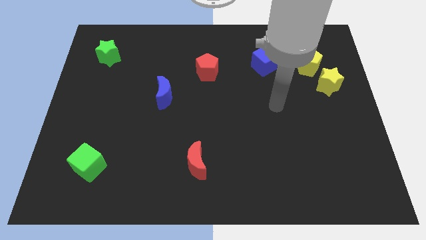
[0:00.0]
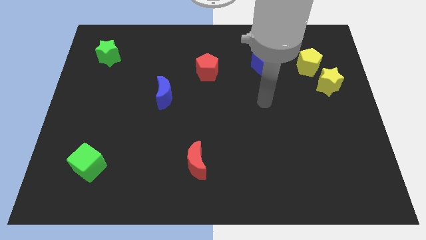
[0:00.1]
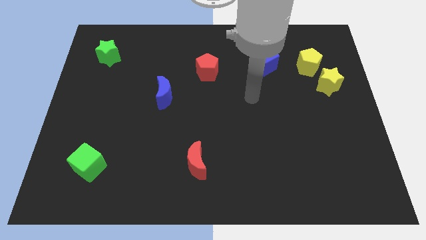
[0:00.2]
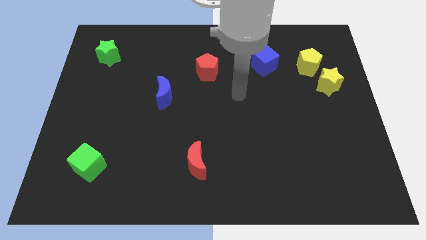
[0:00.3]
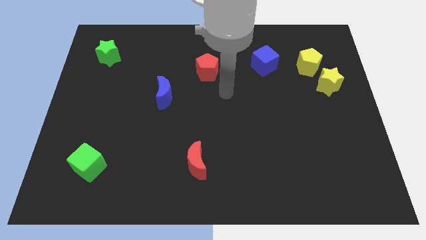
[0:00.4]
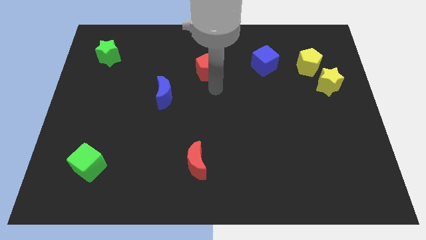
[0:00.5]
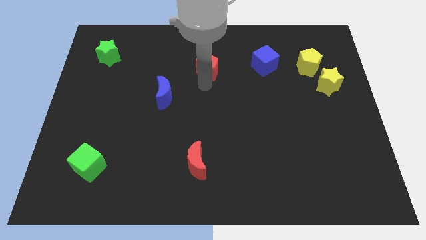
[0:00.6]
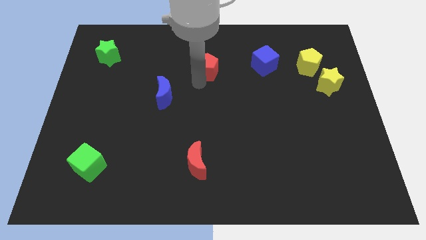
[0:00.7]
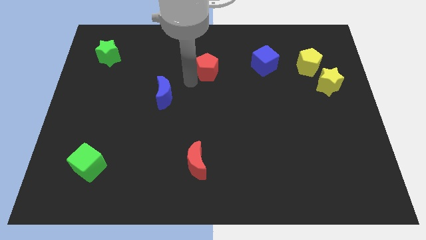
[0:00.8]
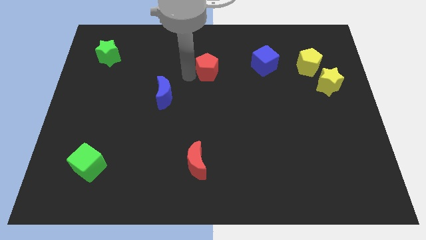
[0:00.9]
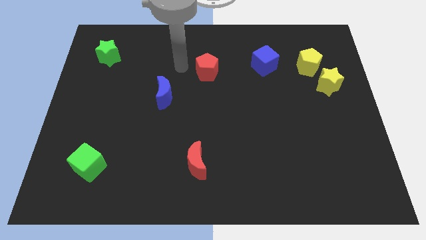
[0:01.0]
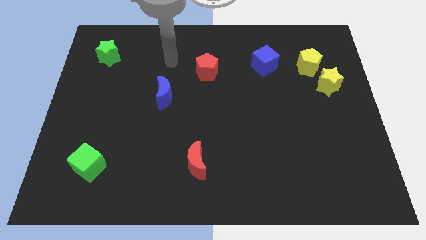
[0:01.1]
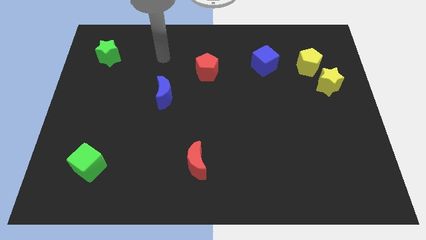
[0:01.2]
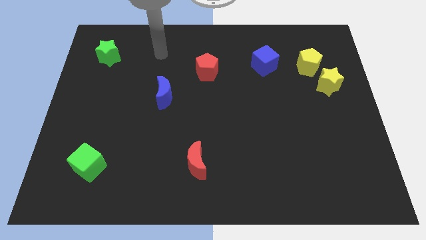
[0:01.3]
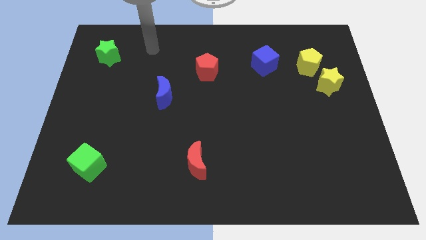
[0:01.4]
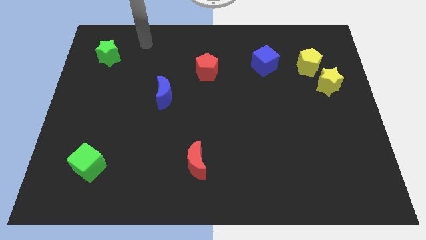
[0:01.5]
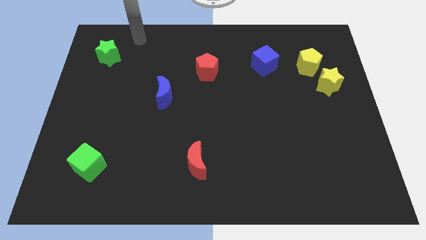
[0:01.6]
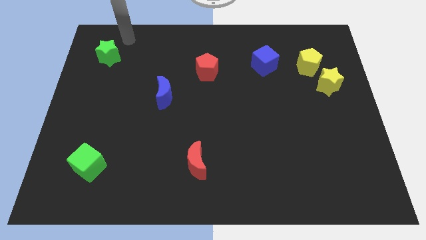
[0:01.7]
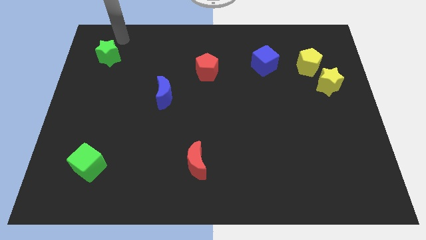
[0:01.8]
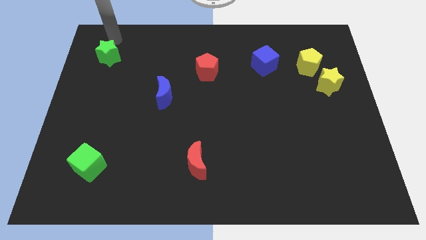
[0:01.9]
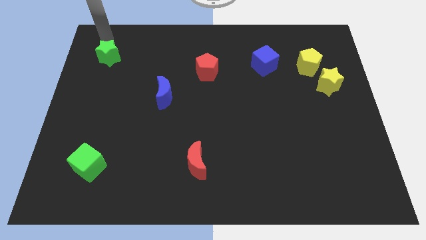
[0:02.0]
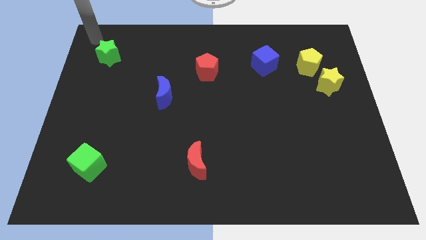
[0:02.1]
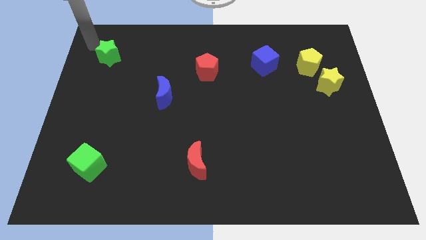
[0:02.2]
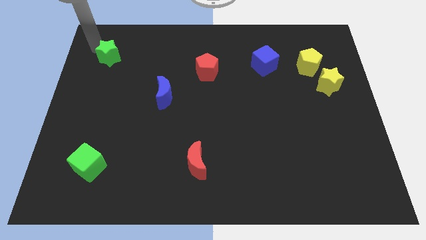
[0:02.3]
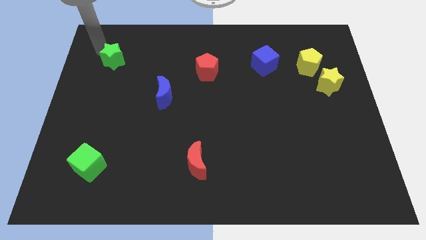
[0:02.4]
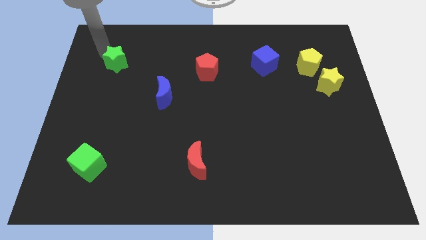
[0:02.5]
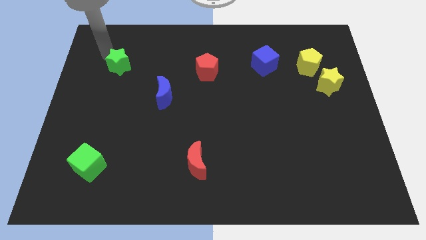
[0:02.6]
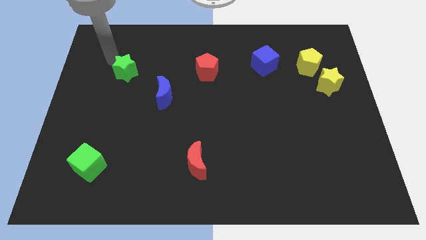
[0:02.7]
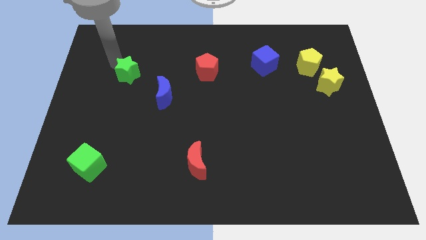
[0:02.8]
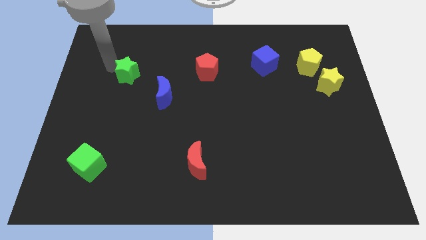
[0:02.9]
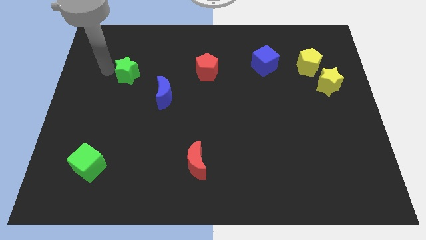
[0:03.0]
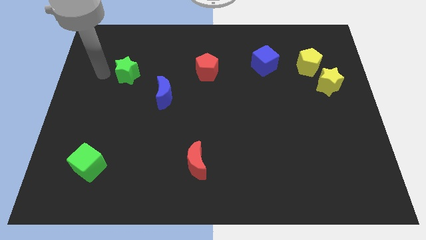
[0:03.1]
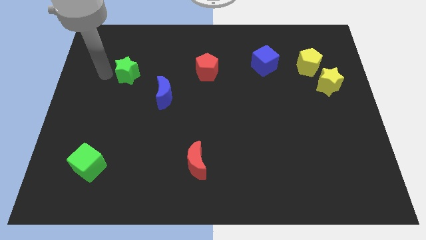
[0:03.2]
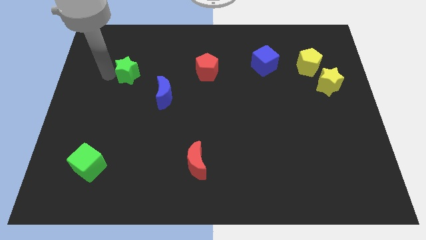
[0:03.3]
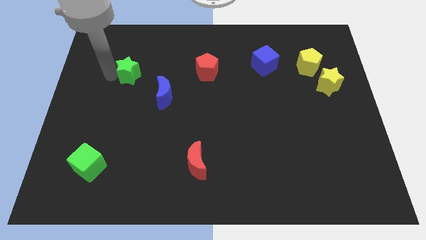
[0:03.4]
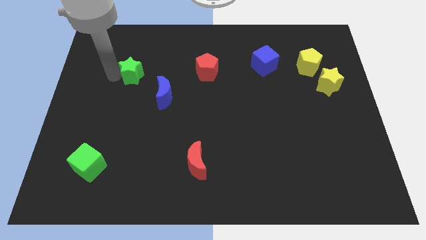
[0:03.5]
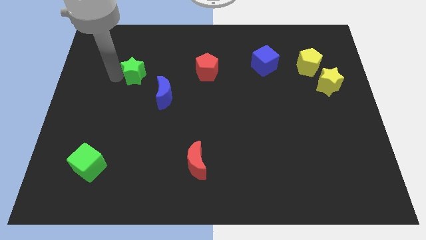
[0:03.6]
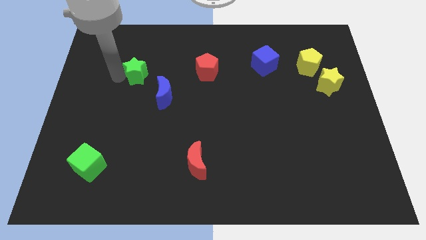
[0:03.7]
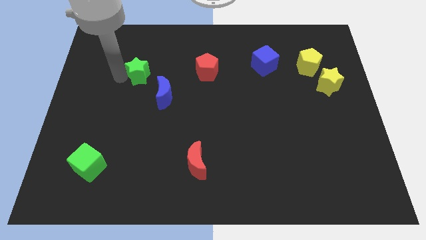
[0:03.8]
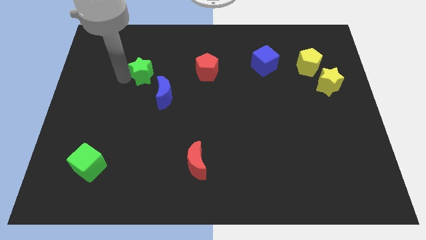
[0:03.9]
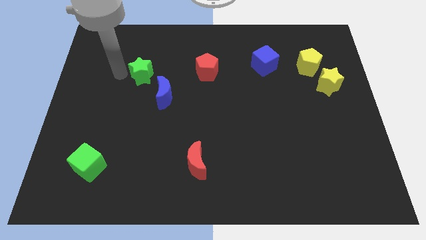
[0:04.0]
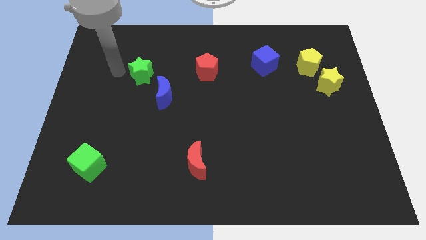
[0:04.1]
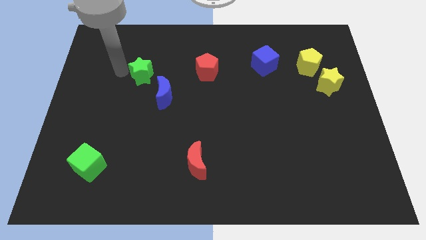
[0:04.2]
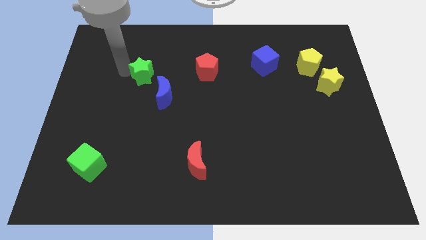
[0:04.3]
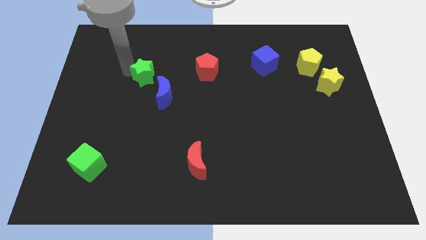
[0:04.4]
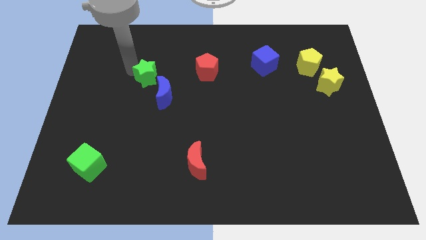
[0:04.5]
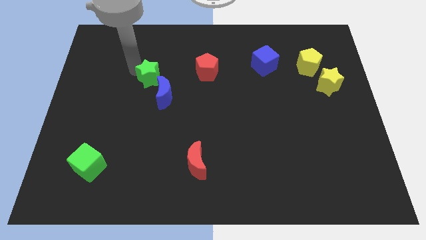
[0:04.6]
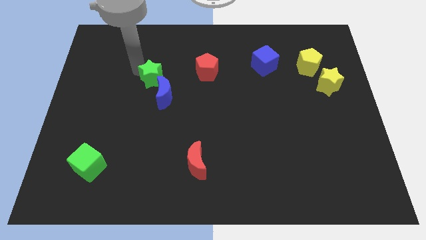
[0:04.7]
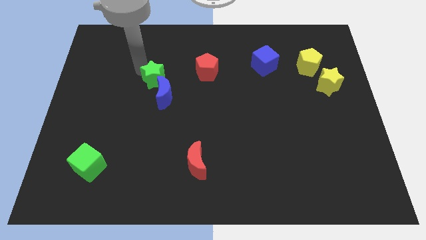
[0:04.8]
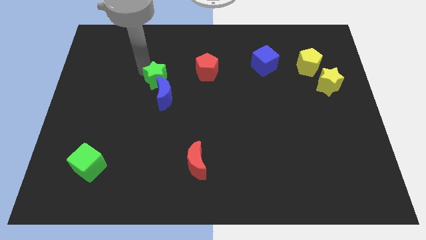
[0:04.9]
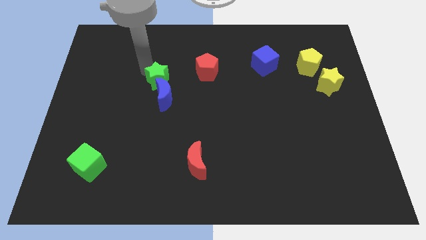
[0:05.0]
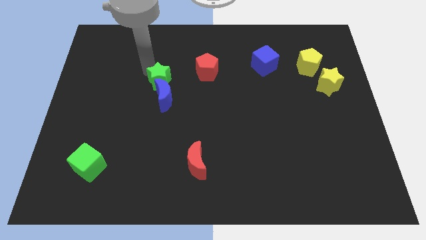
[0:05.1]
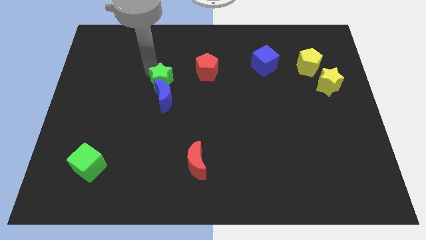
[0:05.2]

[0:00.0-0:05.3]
slide the green star to the top right side of the blue moon

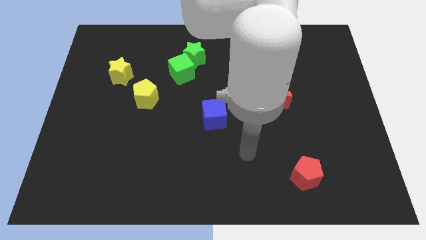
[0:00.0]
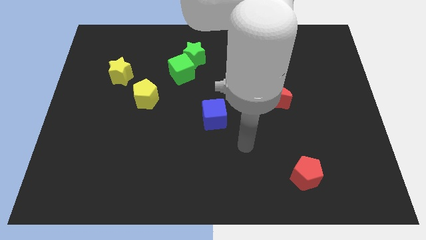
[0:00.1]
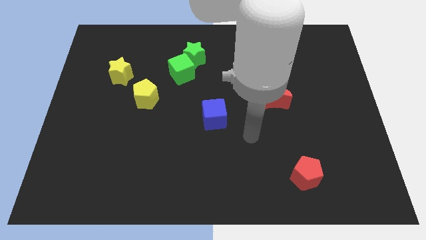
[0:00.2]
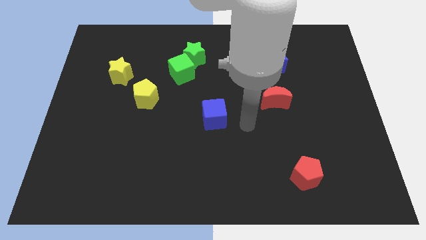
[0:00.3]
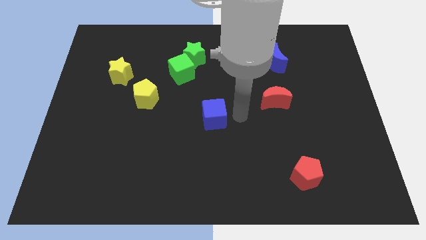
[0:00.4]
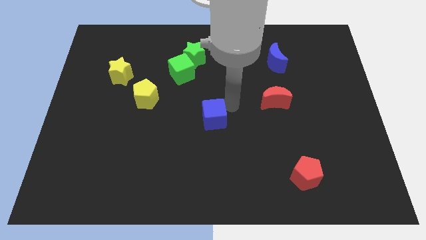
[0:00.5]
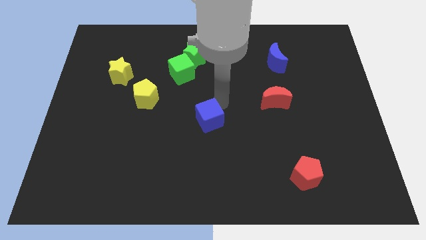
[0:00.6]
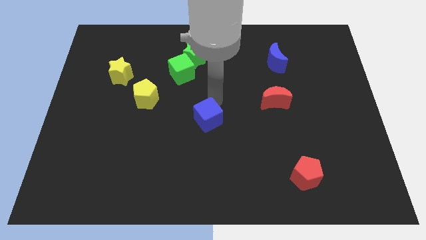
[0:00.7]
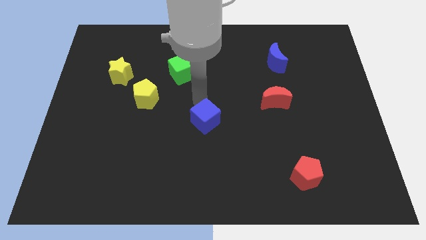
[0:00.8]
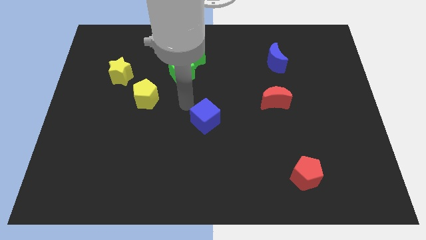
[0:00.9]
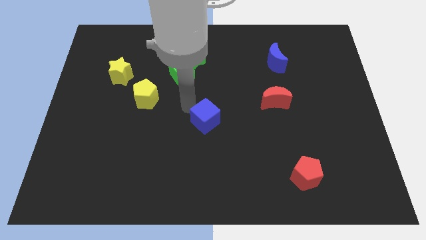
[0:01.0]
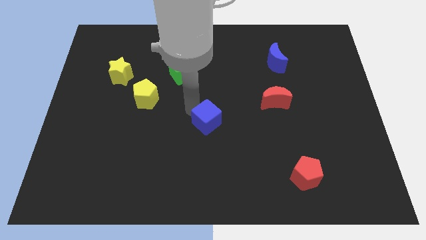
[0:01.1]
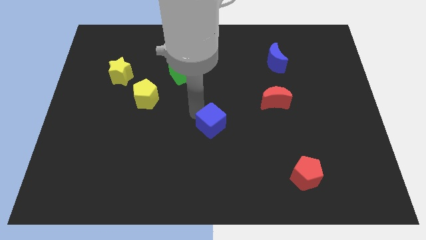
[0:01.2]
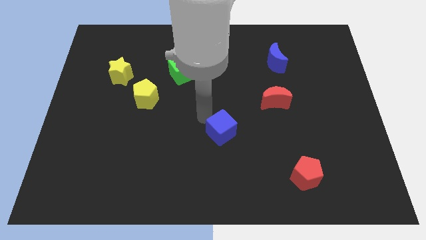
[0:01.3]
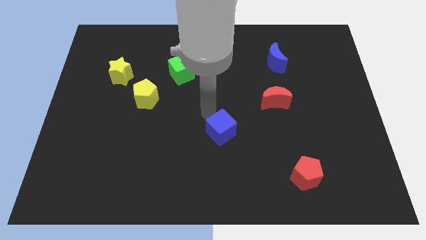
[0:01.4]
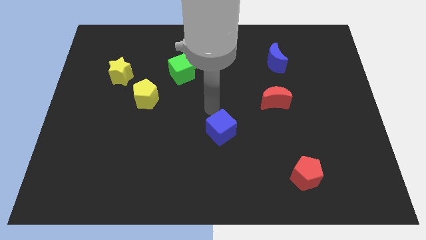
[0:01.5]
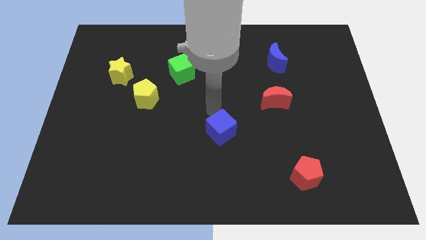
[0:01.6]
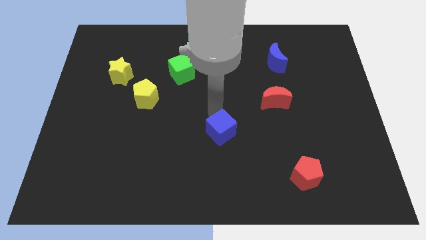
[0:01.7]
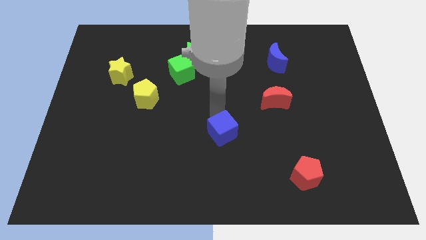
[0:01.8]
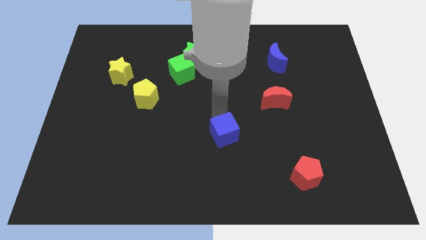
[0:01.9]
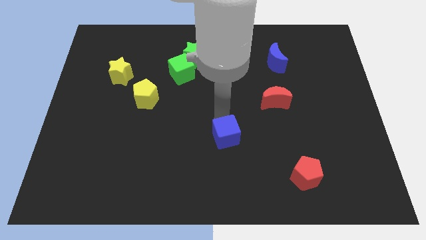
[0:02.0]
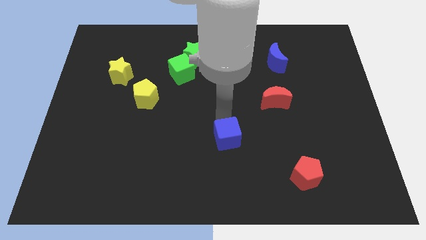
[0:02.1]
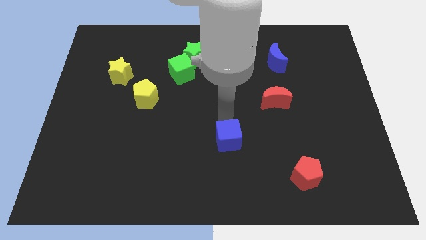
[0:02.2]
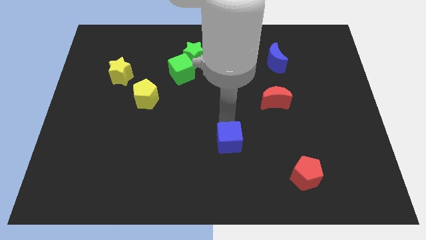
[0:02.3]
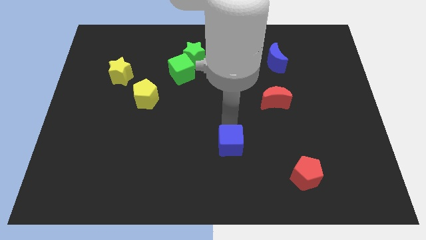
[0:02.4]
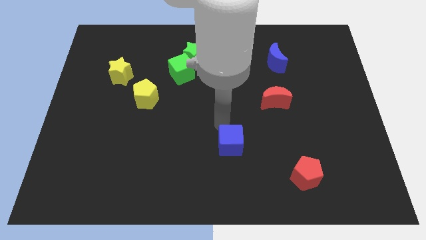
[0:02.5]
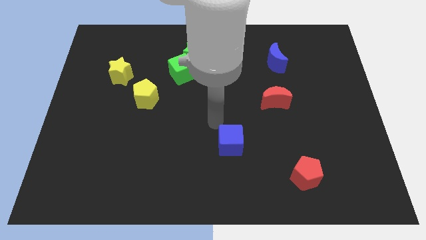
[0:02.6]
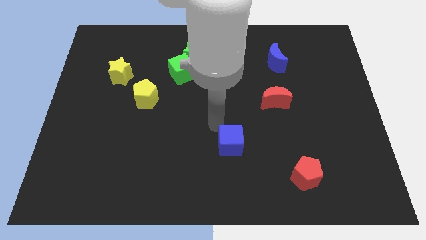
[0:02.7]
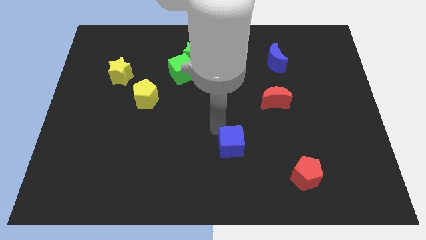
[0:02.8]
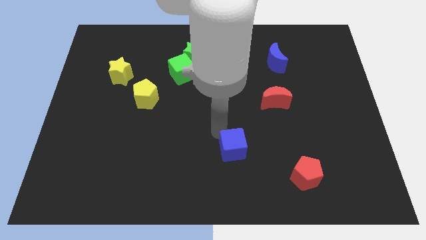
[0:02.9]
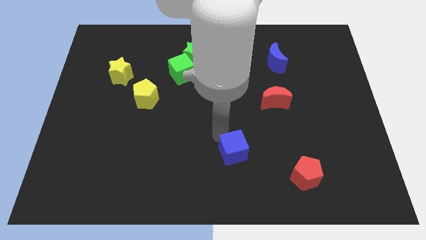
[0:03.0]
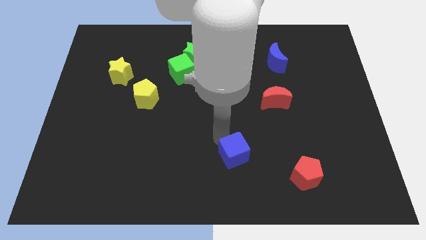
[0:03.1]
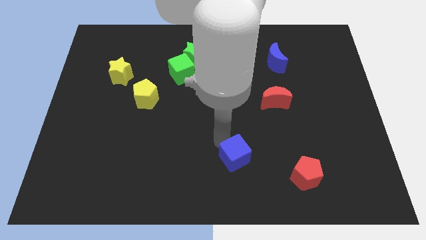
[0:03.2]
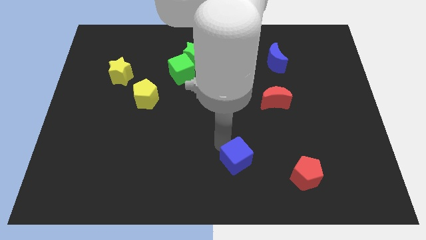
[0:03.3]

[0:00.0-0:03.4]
push the blue cube just left of the red pentagon
